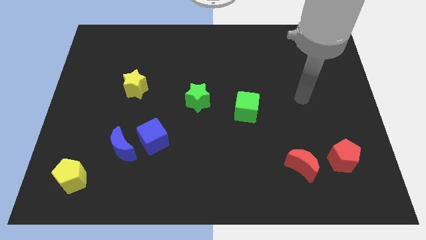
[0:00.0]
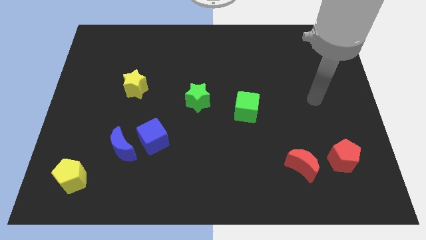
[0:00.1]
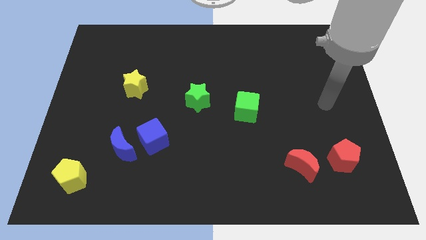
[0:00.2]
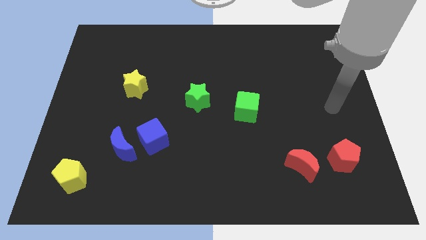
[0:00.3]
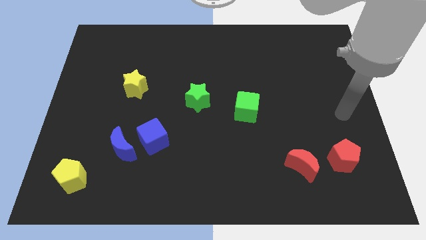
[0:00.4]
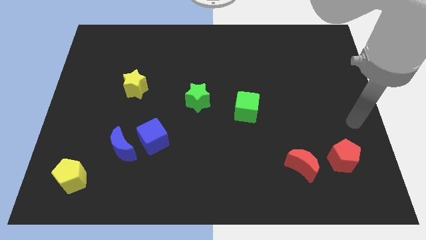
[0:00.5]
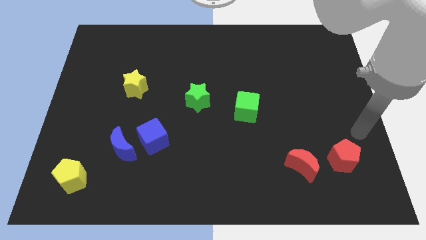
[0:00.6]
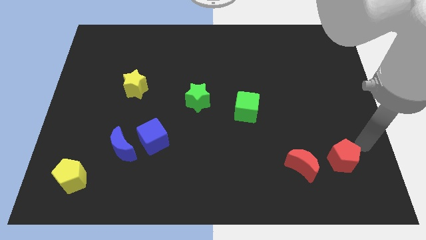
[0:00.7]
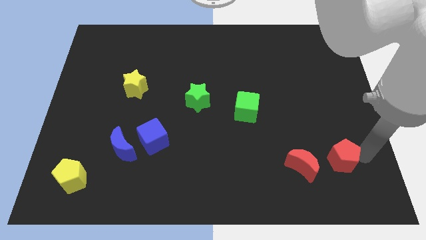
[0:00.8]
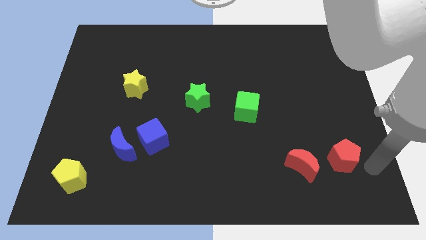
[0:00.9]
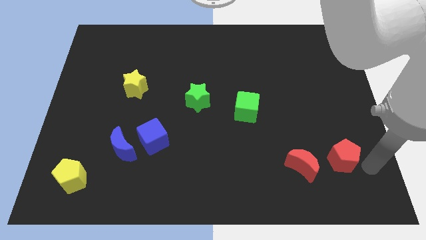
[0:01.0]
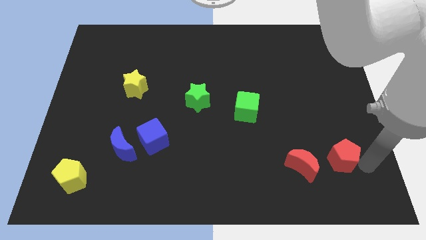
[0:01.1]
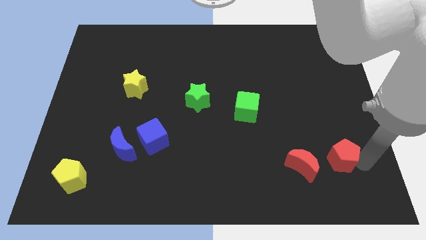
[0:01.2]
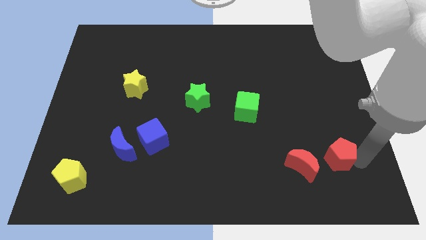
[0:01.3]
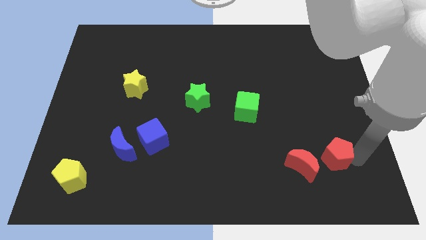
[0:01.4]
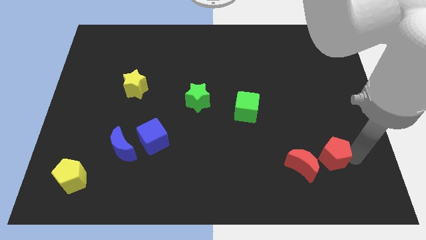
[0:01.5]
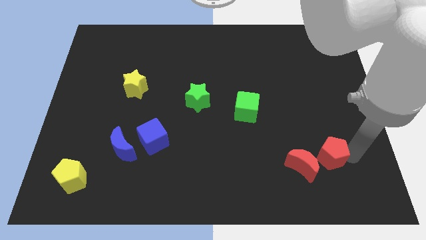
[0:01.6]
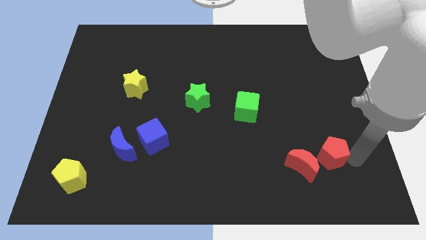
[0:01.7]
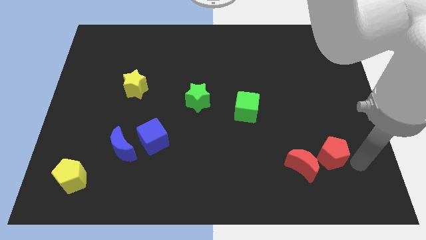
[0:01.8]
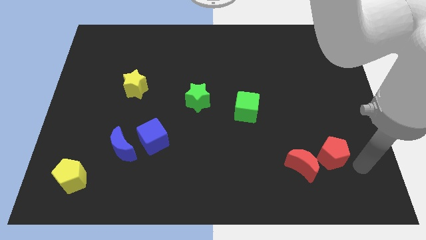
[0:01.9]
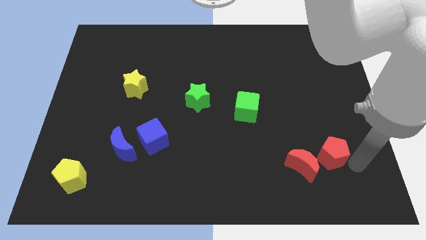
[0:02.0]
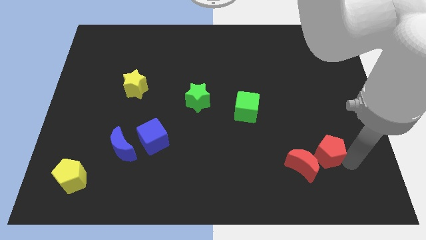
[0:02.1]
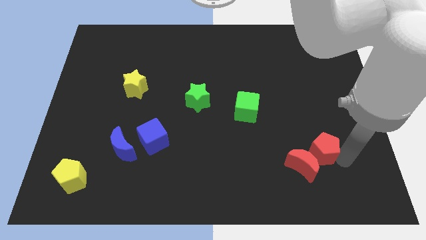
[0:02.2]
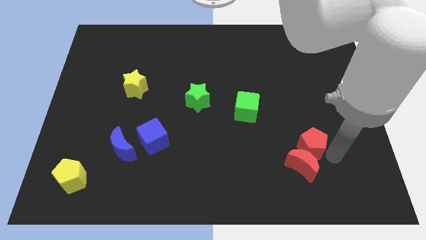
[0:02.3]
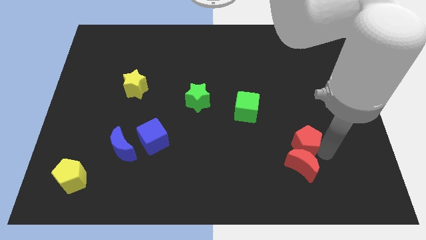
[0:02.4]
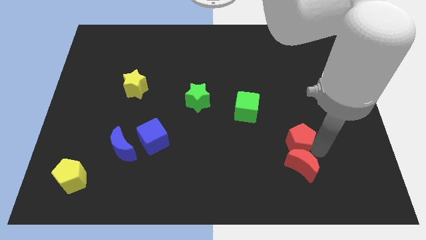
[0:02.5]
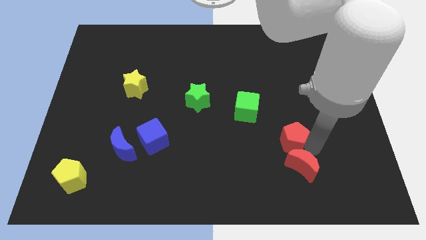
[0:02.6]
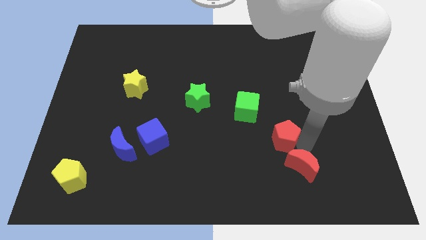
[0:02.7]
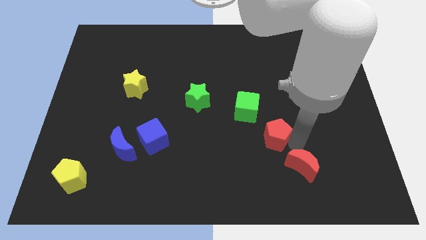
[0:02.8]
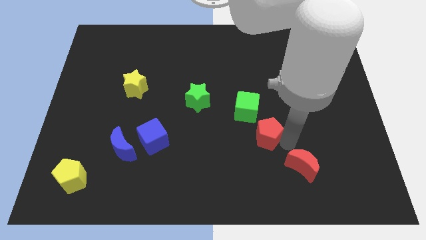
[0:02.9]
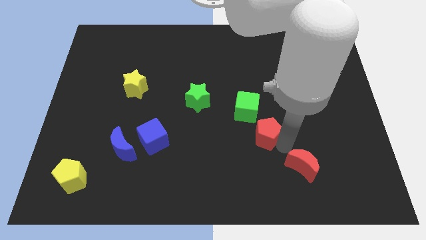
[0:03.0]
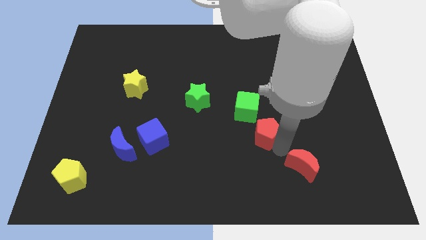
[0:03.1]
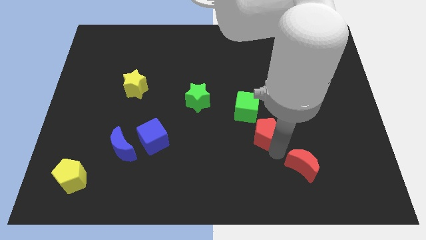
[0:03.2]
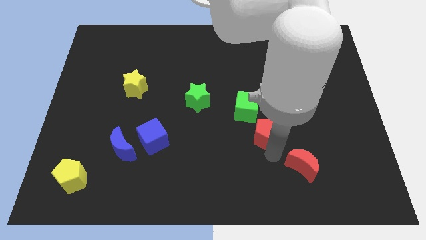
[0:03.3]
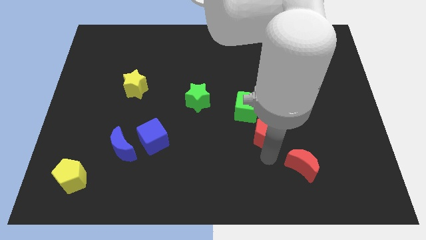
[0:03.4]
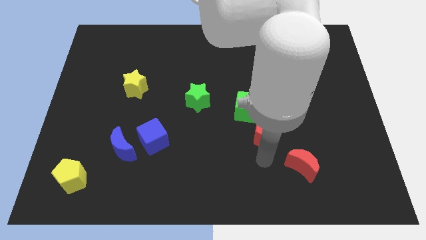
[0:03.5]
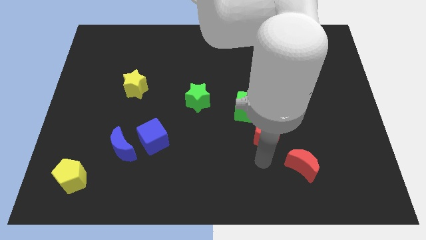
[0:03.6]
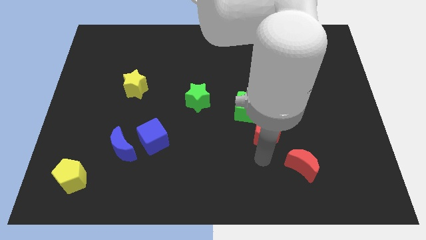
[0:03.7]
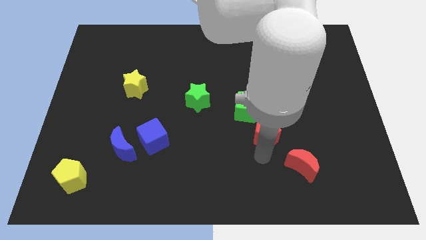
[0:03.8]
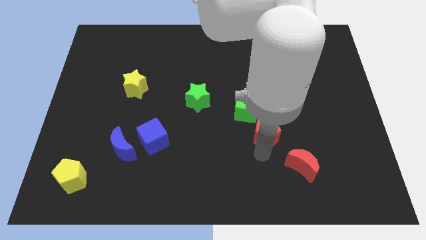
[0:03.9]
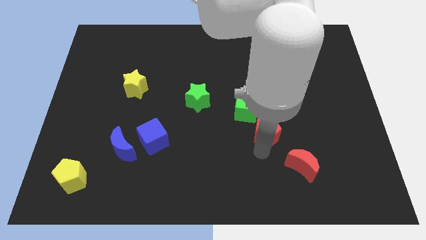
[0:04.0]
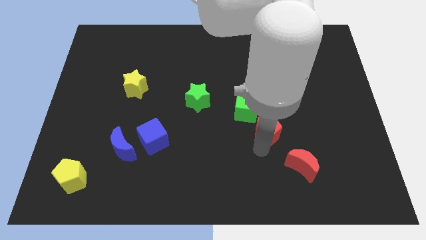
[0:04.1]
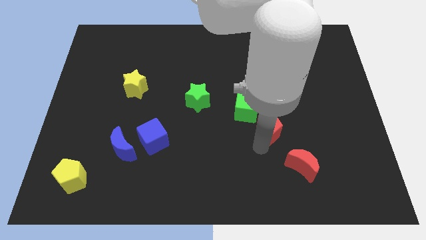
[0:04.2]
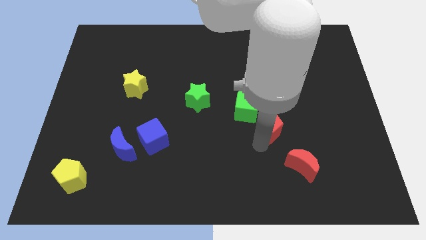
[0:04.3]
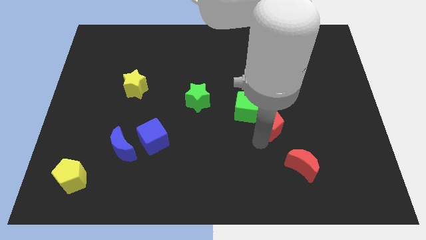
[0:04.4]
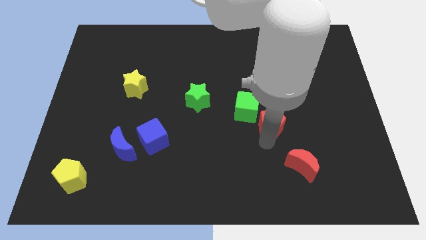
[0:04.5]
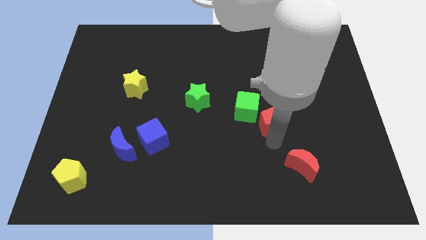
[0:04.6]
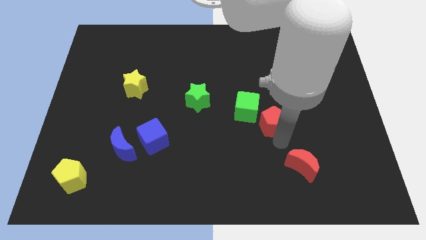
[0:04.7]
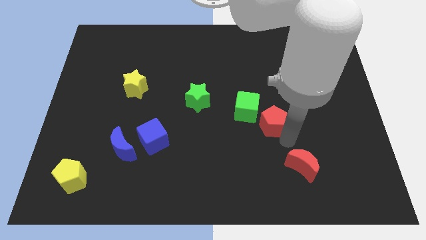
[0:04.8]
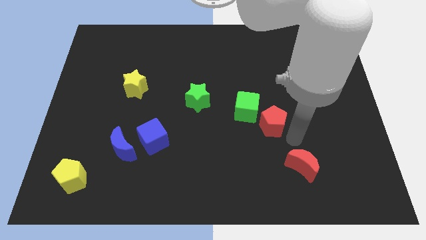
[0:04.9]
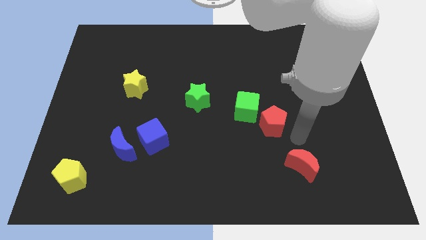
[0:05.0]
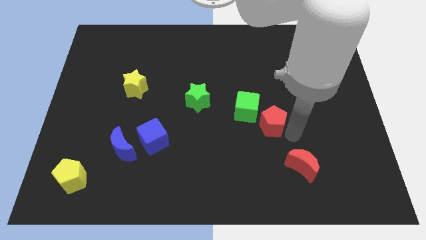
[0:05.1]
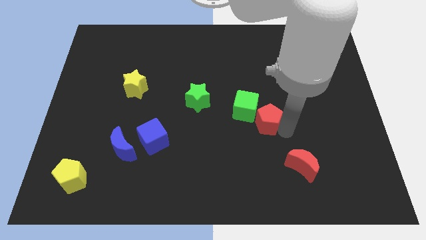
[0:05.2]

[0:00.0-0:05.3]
slide the red pentagon to the green cube

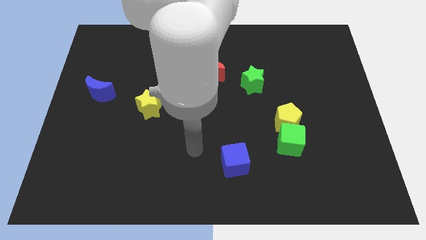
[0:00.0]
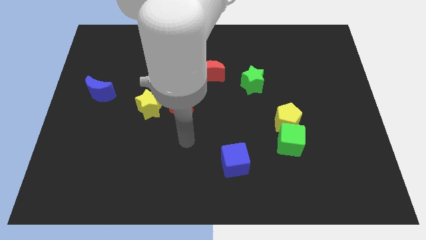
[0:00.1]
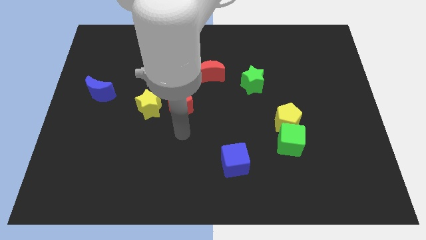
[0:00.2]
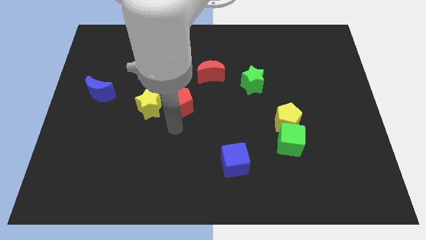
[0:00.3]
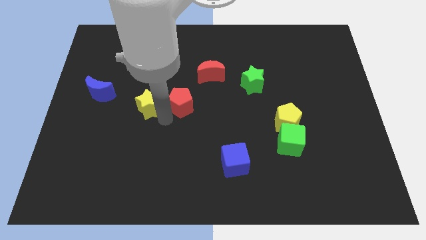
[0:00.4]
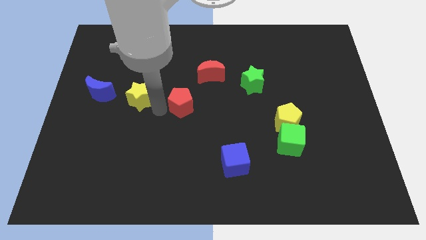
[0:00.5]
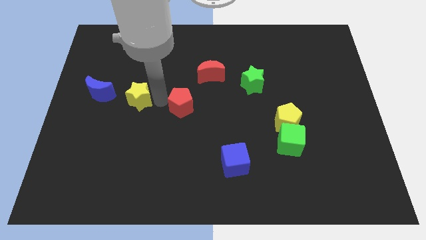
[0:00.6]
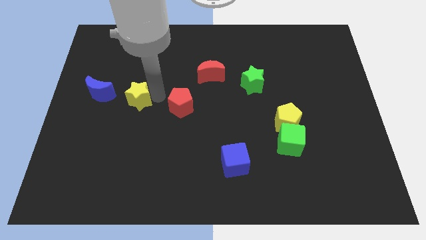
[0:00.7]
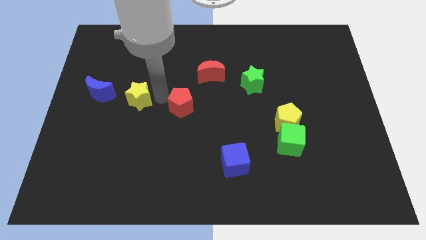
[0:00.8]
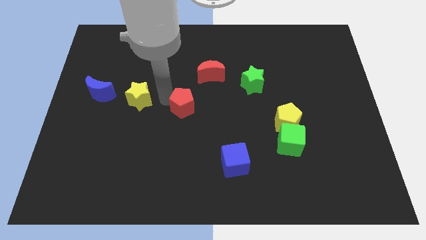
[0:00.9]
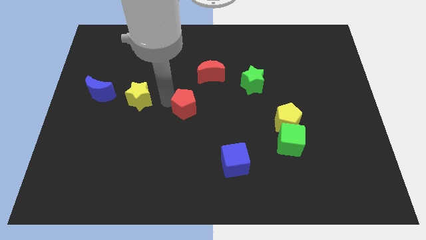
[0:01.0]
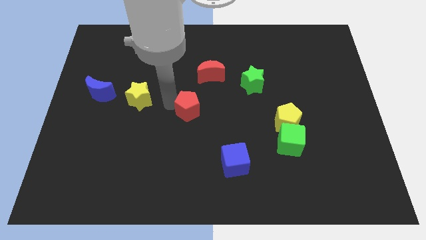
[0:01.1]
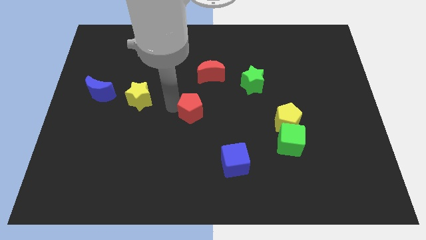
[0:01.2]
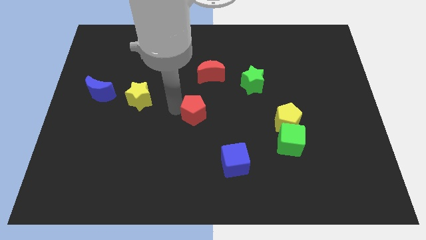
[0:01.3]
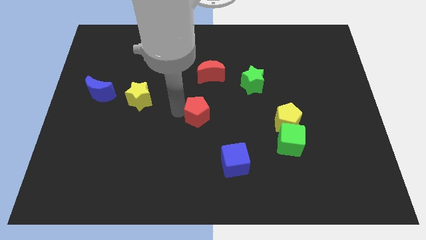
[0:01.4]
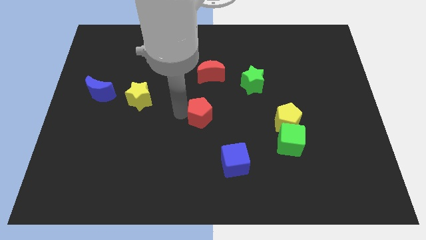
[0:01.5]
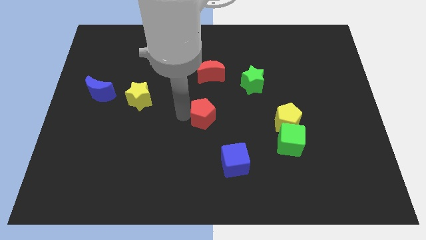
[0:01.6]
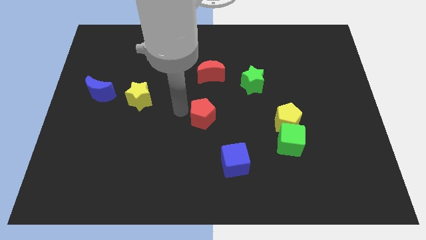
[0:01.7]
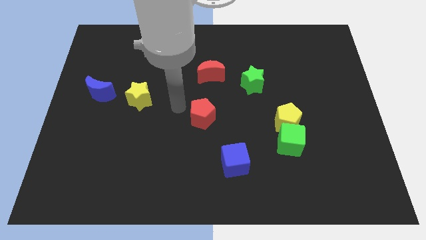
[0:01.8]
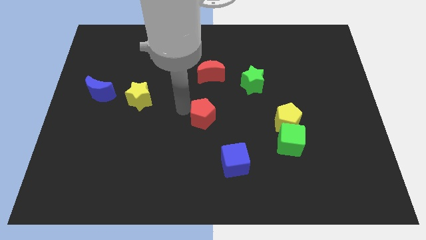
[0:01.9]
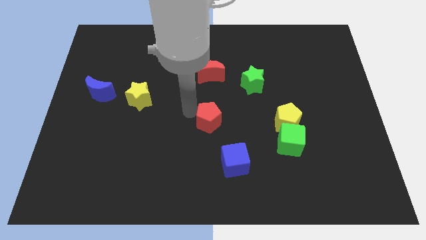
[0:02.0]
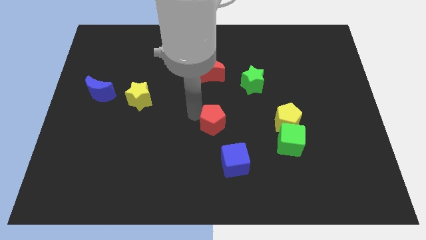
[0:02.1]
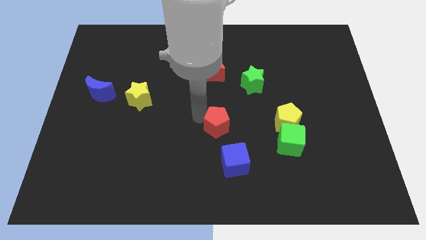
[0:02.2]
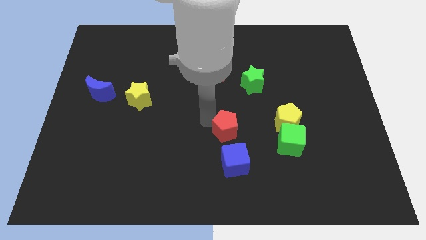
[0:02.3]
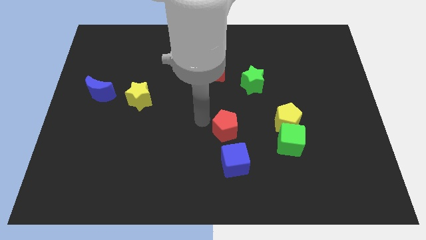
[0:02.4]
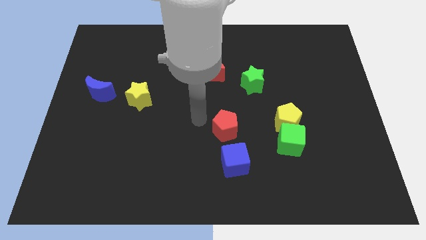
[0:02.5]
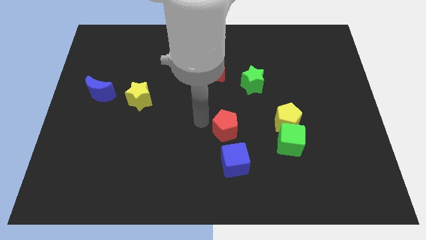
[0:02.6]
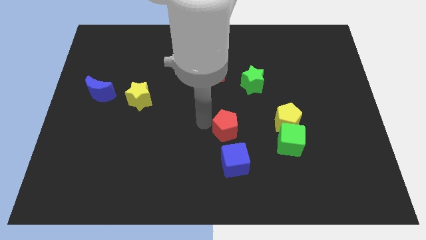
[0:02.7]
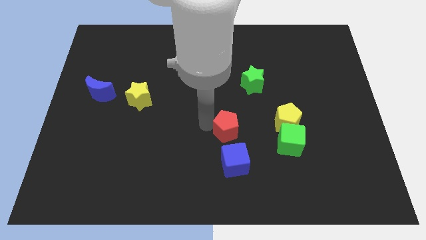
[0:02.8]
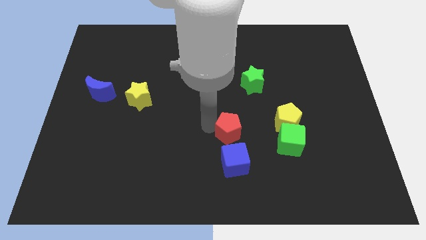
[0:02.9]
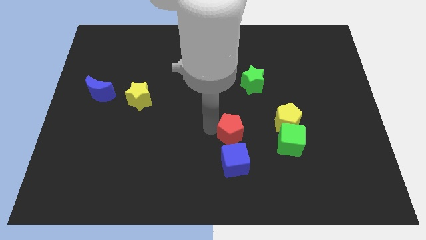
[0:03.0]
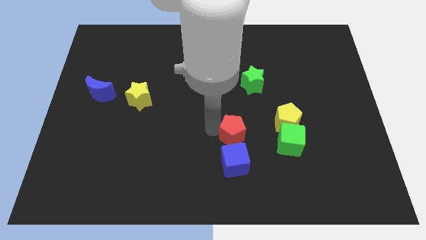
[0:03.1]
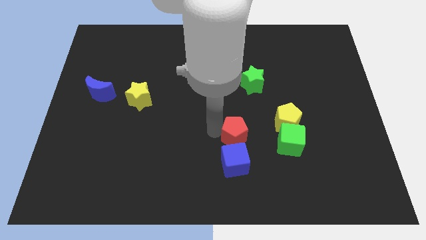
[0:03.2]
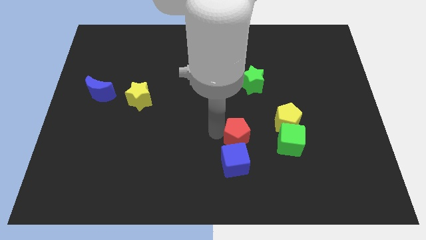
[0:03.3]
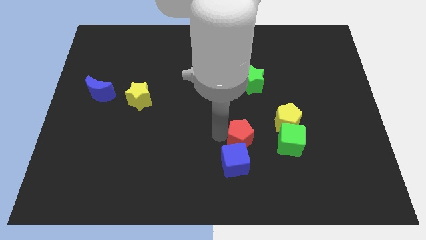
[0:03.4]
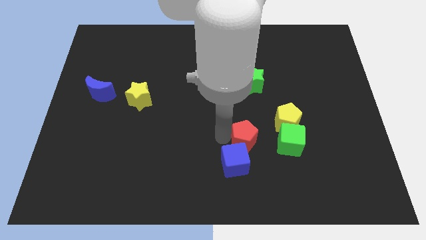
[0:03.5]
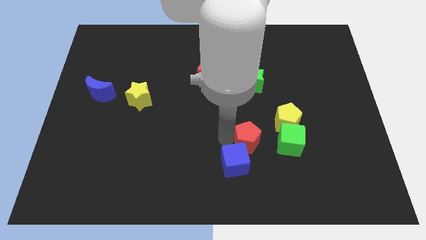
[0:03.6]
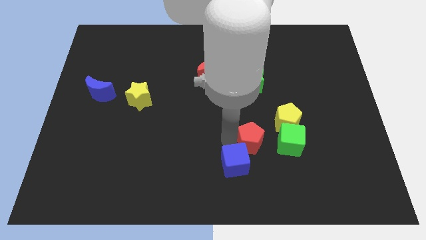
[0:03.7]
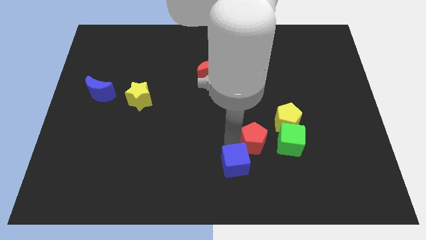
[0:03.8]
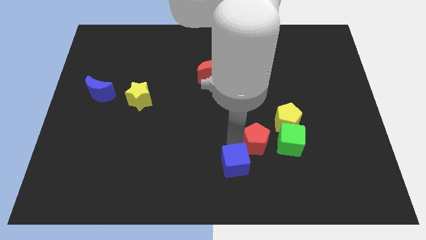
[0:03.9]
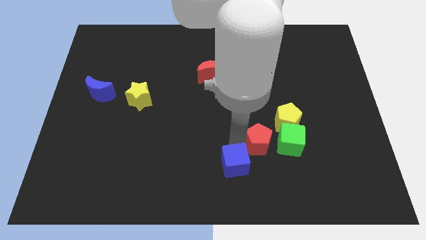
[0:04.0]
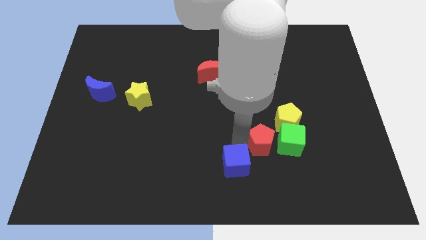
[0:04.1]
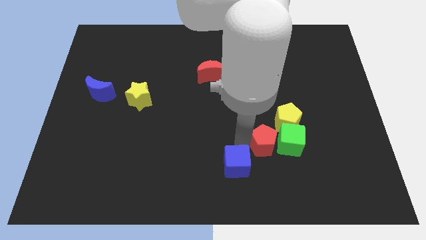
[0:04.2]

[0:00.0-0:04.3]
slide the red pentagon next to the green cube
